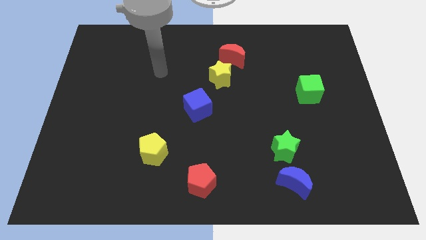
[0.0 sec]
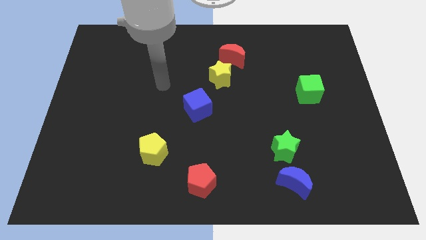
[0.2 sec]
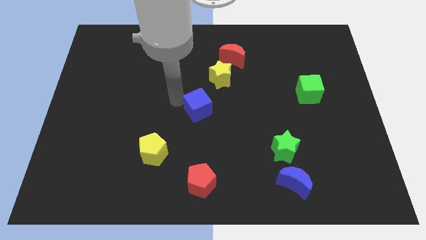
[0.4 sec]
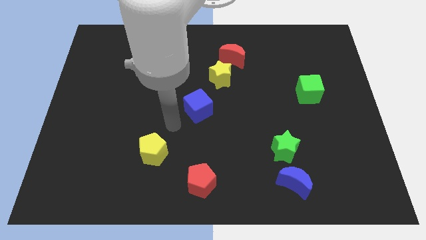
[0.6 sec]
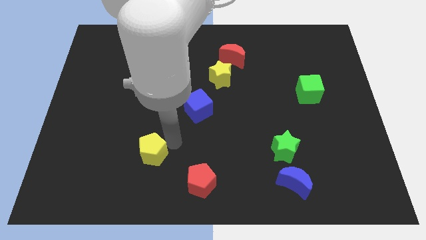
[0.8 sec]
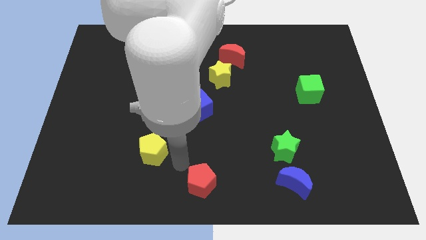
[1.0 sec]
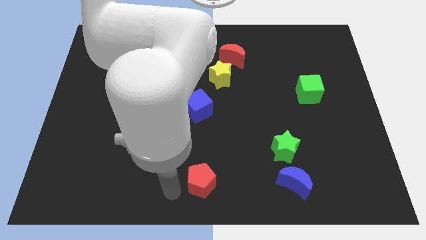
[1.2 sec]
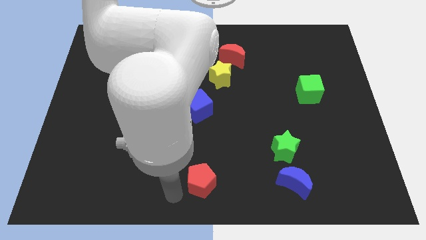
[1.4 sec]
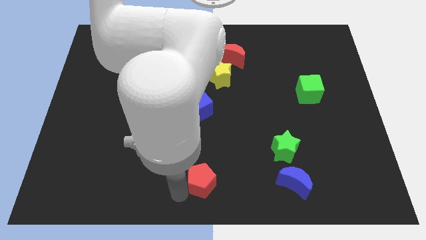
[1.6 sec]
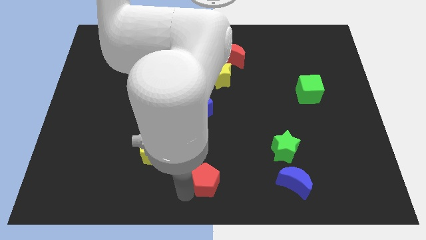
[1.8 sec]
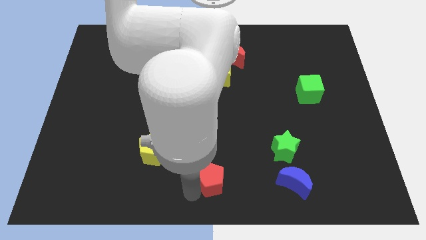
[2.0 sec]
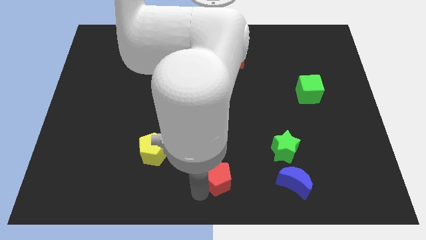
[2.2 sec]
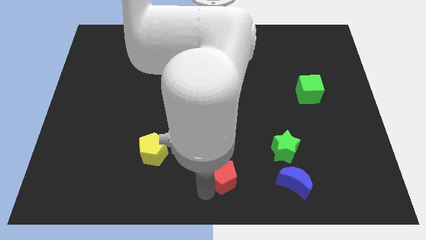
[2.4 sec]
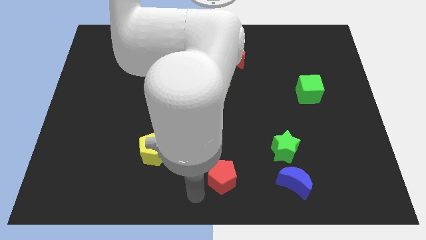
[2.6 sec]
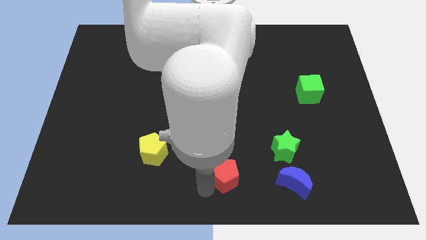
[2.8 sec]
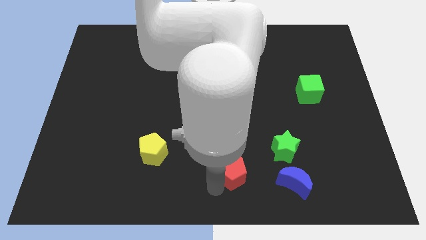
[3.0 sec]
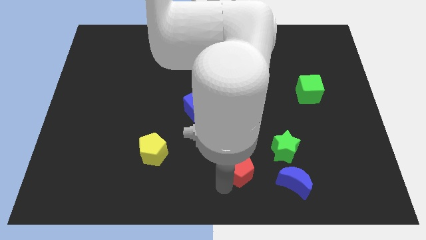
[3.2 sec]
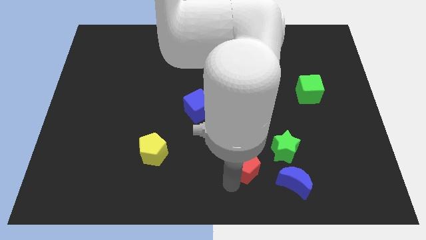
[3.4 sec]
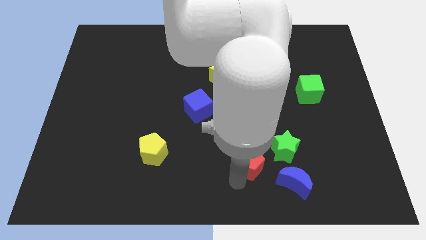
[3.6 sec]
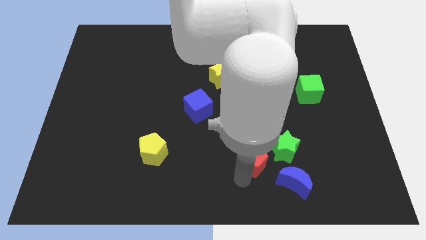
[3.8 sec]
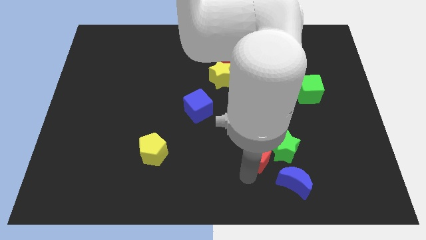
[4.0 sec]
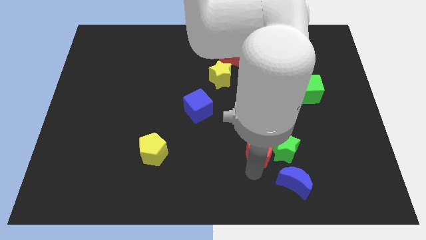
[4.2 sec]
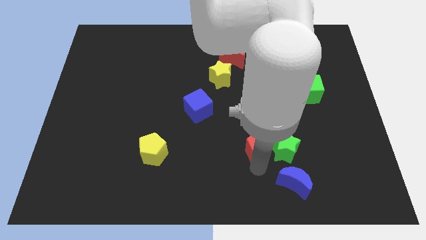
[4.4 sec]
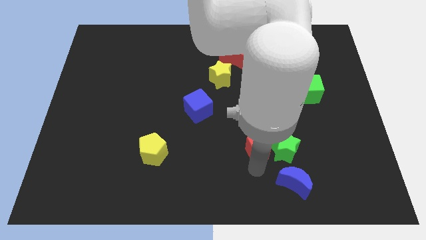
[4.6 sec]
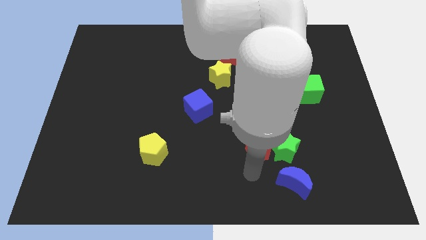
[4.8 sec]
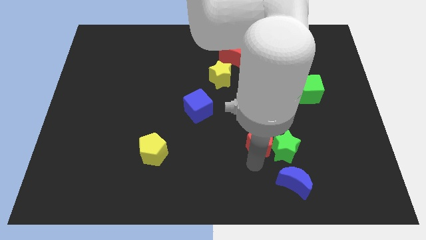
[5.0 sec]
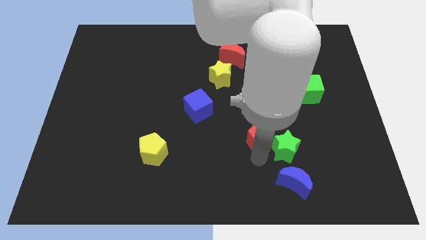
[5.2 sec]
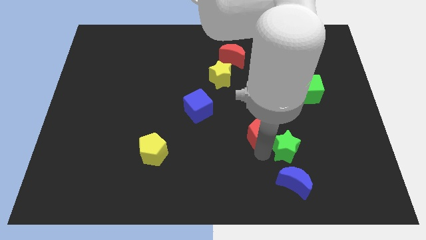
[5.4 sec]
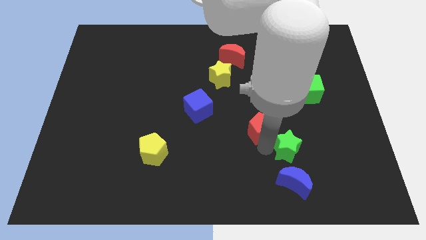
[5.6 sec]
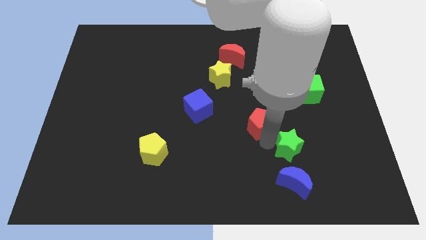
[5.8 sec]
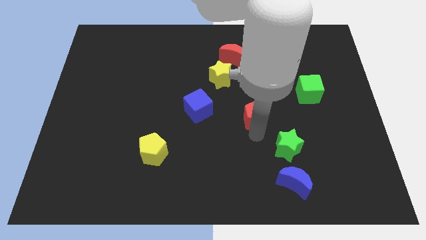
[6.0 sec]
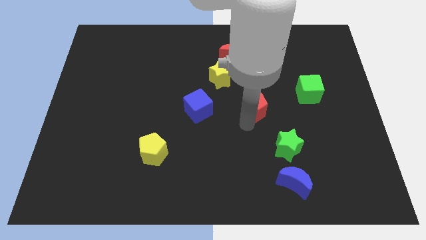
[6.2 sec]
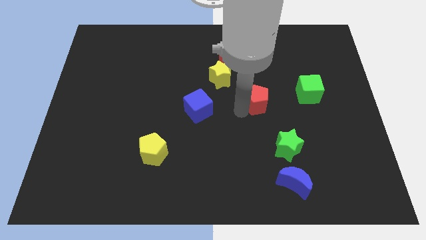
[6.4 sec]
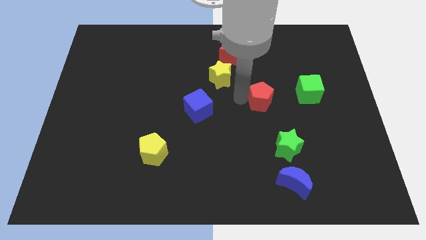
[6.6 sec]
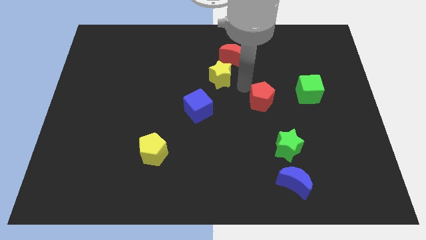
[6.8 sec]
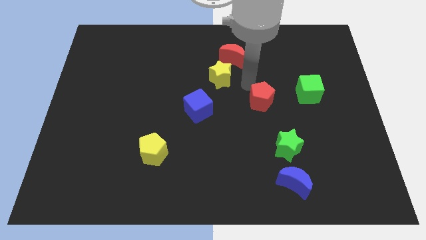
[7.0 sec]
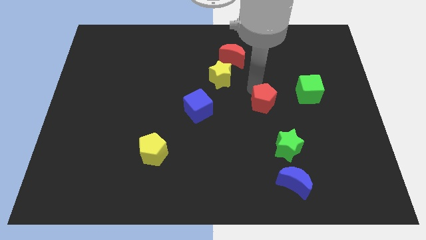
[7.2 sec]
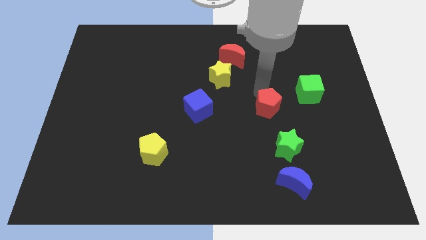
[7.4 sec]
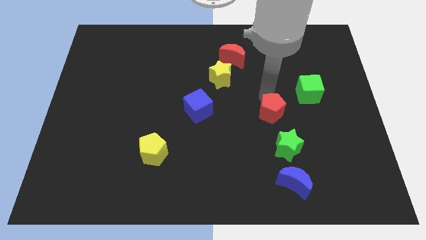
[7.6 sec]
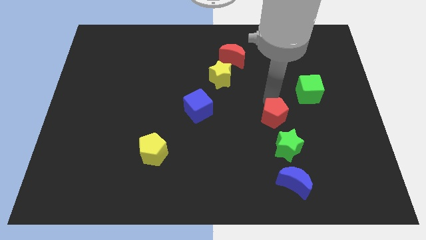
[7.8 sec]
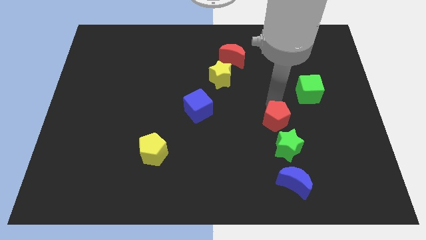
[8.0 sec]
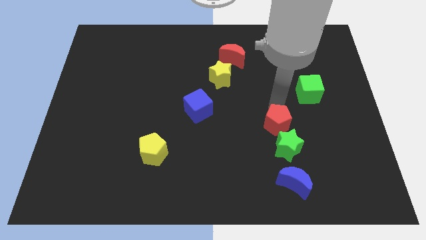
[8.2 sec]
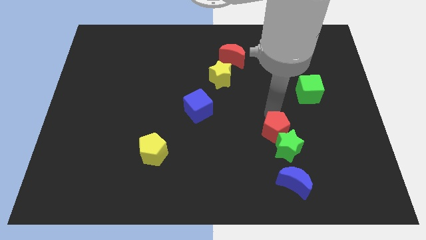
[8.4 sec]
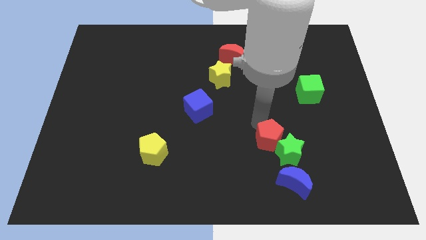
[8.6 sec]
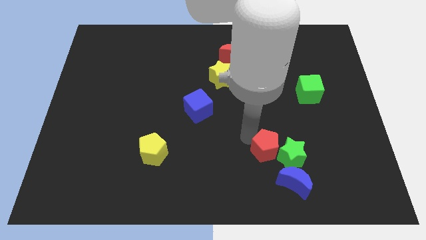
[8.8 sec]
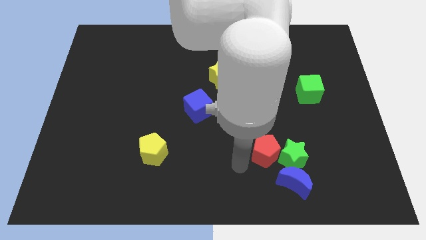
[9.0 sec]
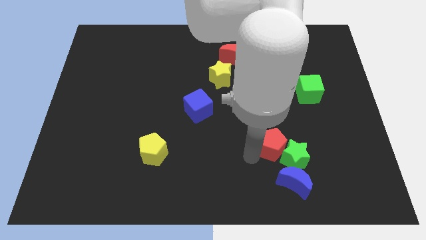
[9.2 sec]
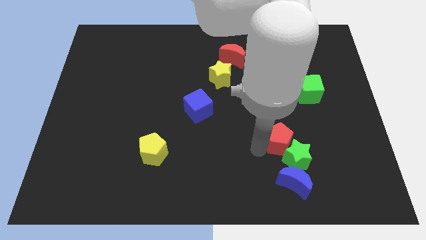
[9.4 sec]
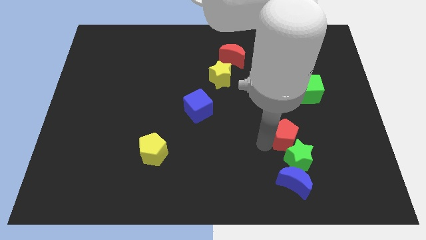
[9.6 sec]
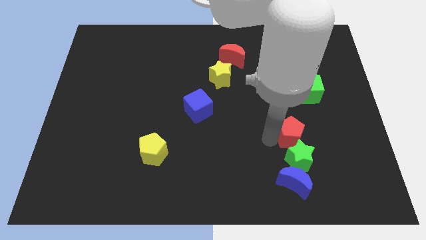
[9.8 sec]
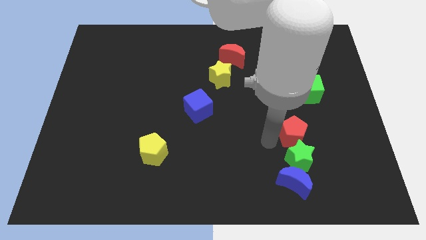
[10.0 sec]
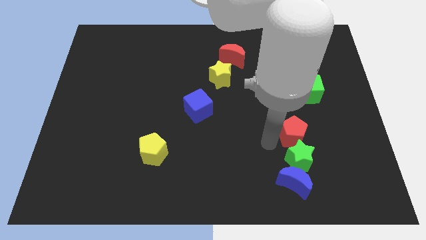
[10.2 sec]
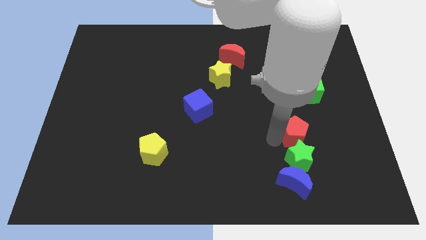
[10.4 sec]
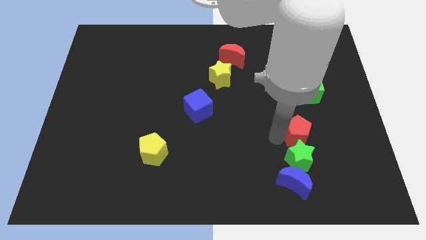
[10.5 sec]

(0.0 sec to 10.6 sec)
put the red pentagon to the bottom side of the green cube

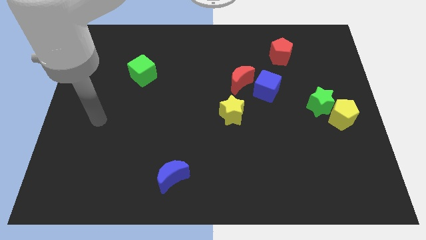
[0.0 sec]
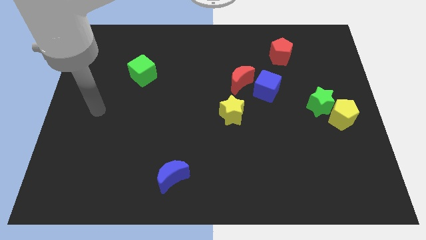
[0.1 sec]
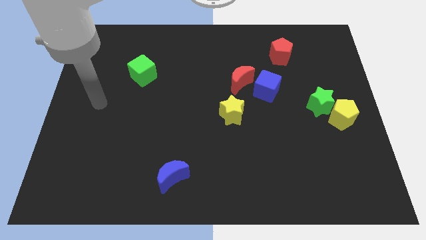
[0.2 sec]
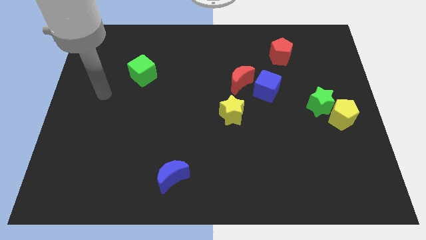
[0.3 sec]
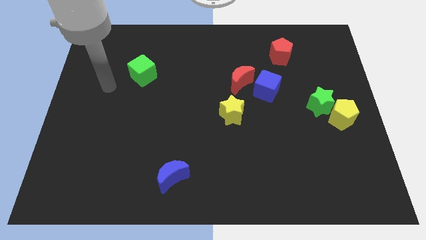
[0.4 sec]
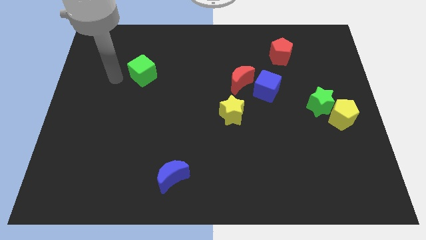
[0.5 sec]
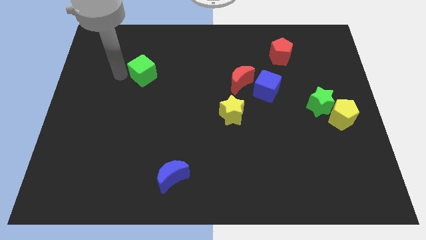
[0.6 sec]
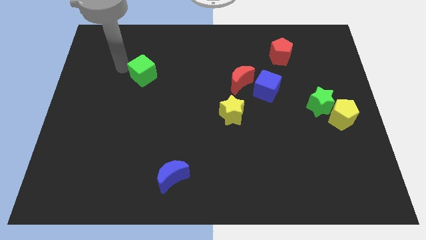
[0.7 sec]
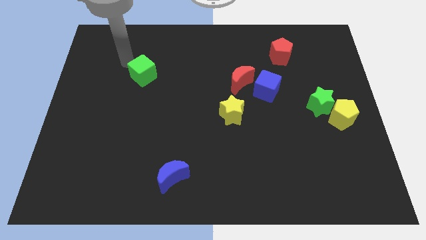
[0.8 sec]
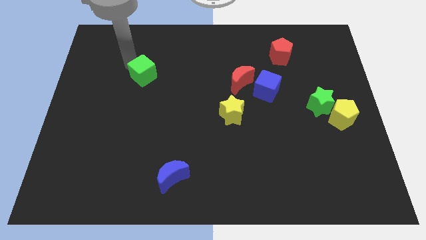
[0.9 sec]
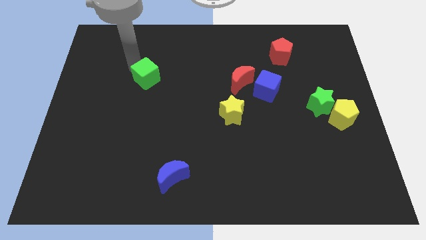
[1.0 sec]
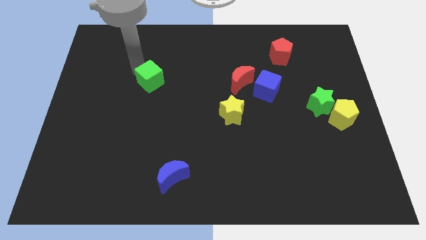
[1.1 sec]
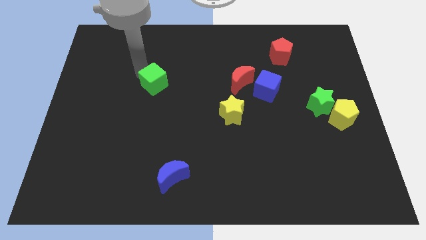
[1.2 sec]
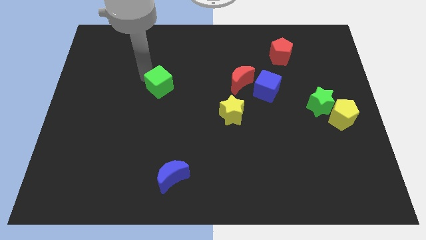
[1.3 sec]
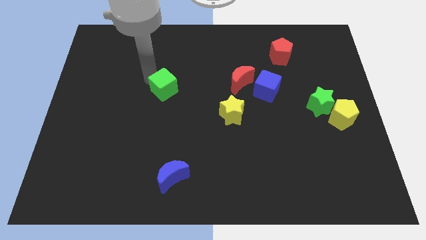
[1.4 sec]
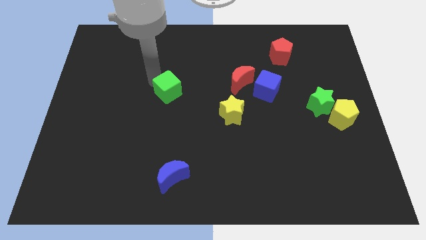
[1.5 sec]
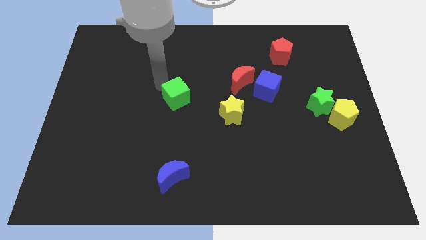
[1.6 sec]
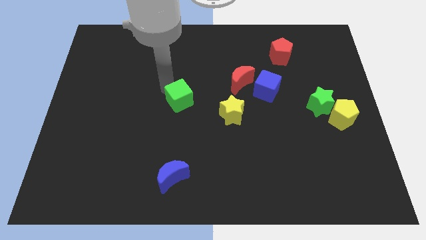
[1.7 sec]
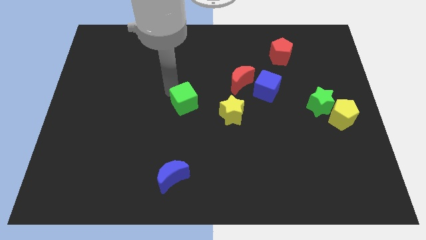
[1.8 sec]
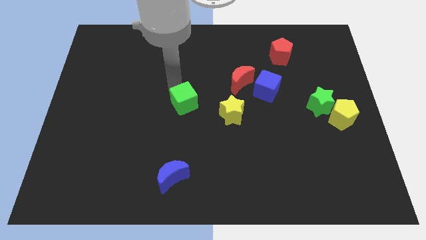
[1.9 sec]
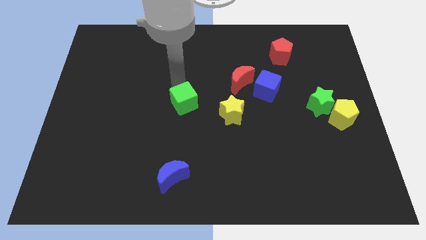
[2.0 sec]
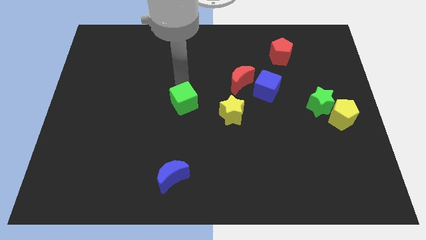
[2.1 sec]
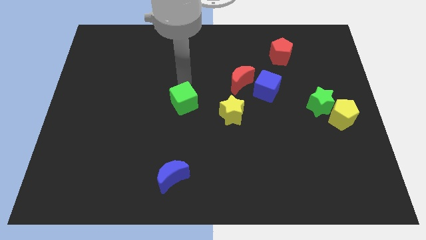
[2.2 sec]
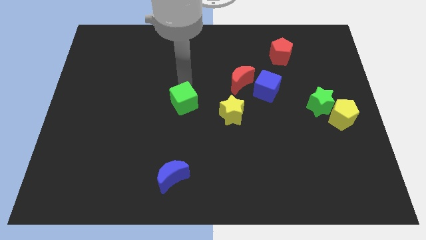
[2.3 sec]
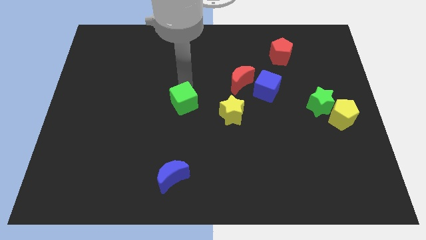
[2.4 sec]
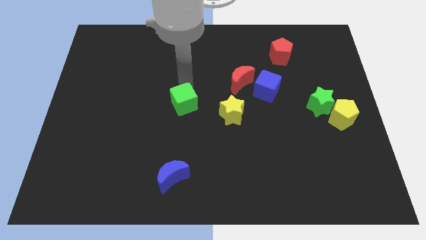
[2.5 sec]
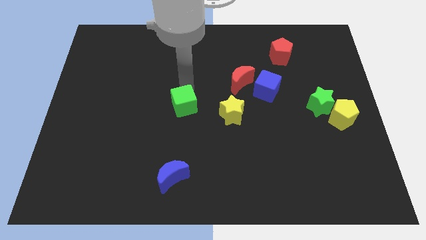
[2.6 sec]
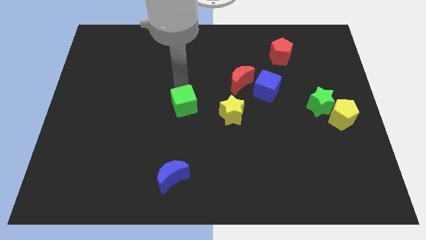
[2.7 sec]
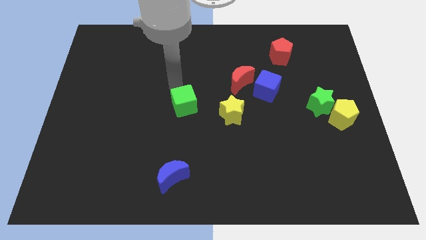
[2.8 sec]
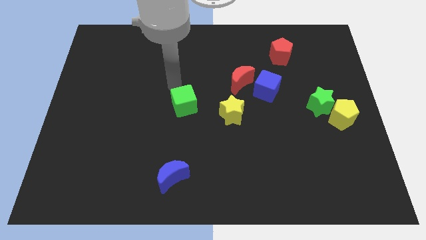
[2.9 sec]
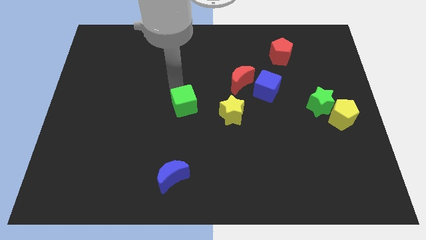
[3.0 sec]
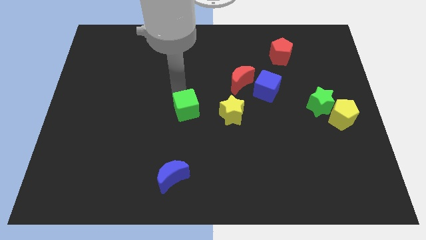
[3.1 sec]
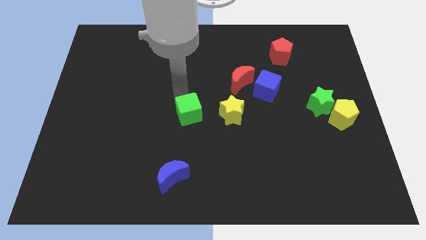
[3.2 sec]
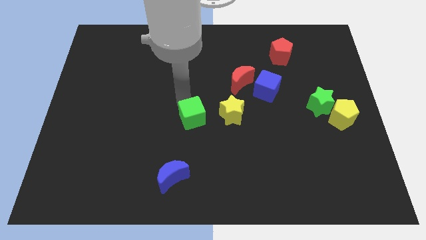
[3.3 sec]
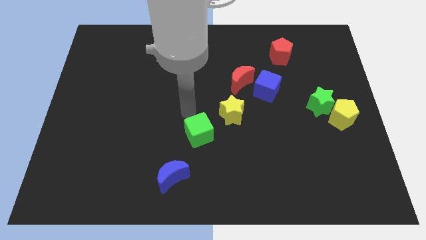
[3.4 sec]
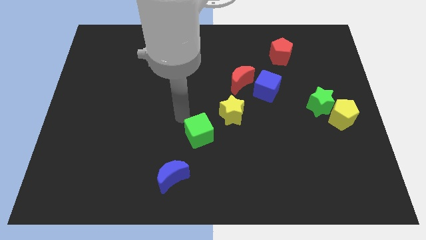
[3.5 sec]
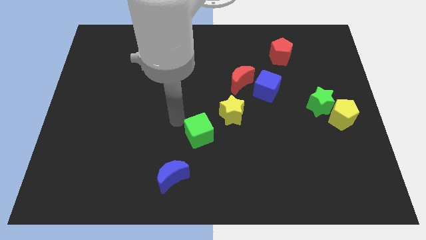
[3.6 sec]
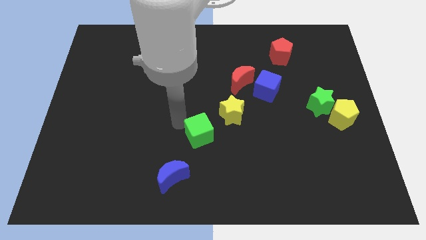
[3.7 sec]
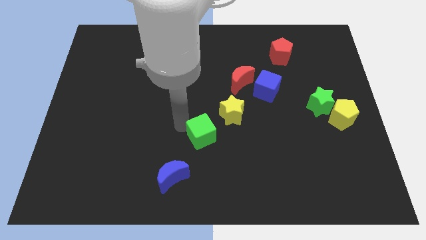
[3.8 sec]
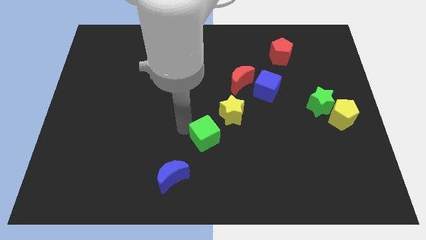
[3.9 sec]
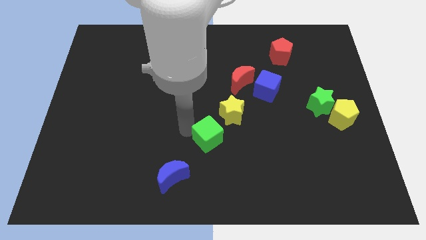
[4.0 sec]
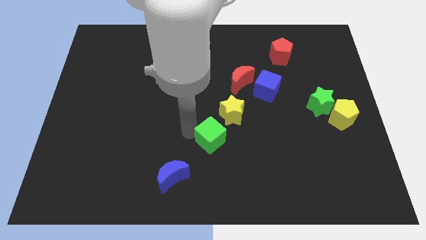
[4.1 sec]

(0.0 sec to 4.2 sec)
slide the green cube to the bottom of the yellow star
